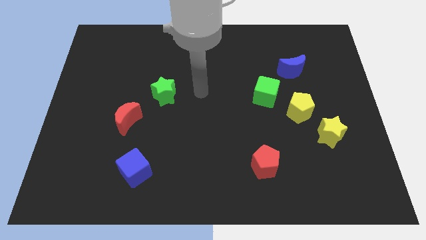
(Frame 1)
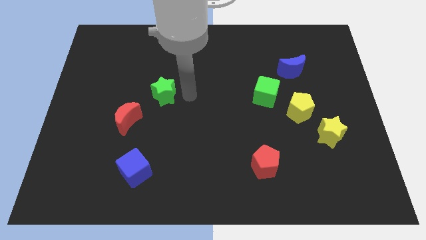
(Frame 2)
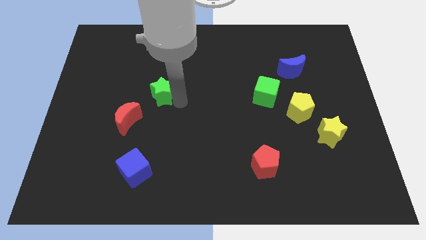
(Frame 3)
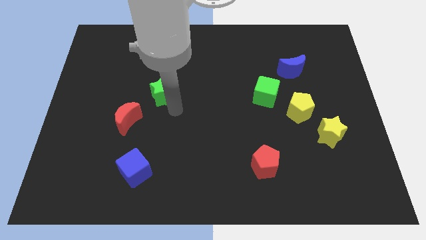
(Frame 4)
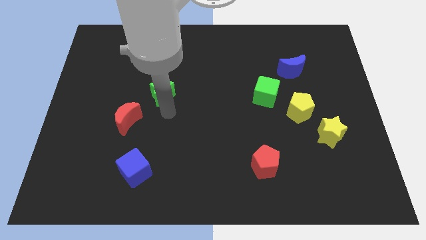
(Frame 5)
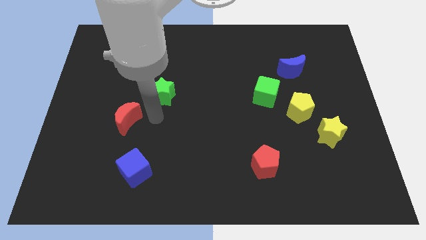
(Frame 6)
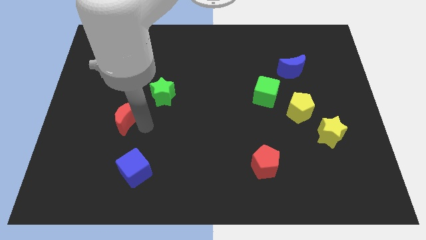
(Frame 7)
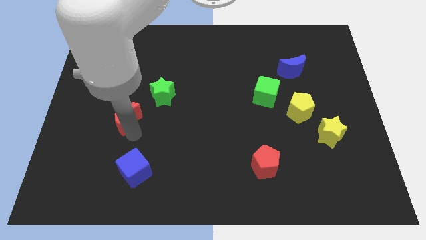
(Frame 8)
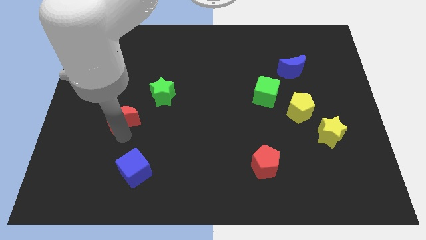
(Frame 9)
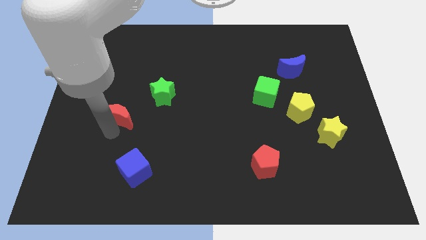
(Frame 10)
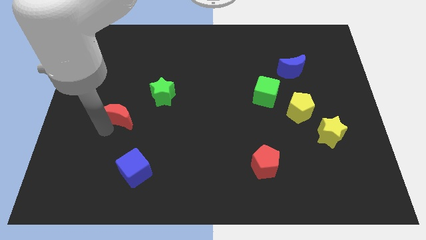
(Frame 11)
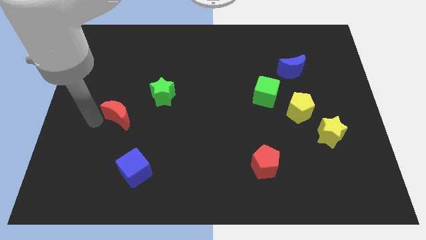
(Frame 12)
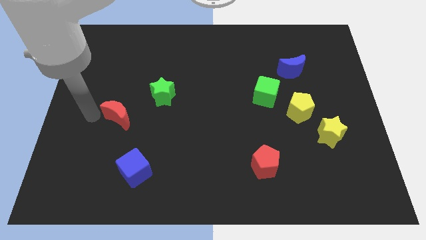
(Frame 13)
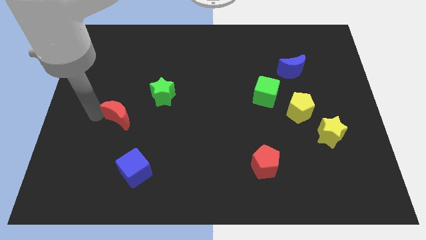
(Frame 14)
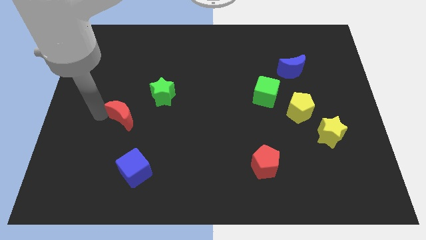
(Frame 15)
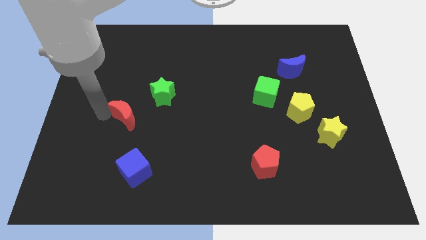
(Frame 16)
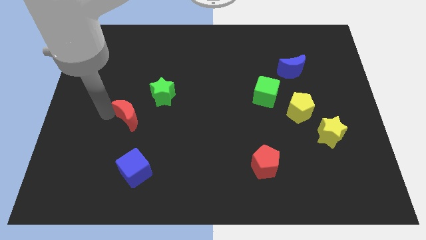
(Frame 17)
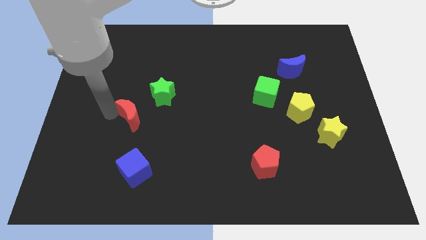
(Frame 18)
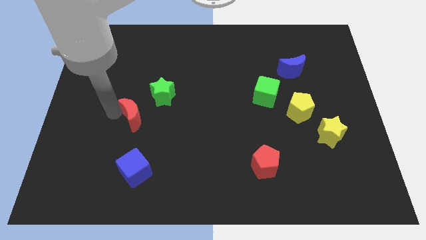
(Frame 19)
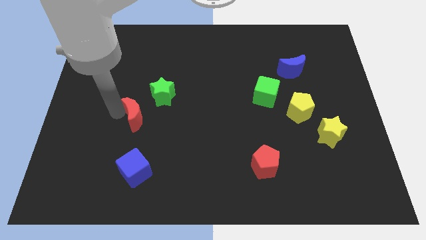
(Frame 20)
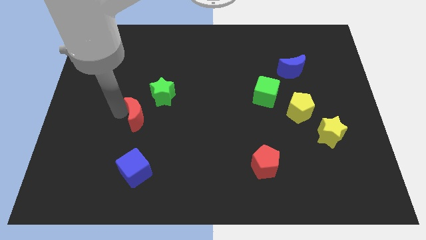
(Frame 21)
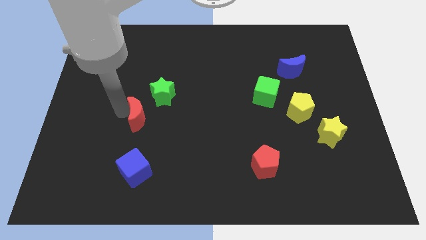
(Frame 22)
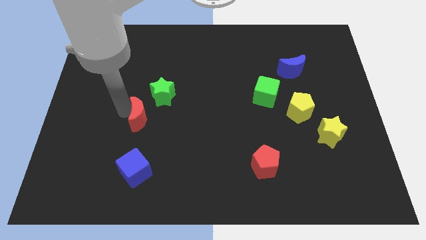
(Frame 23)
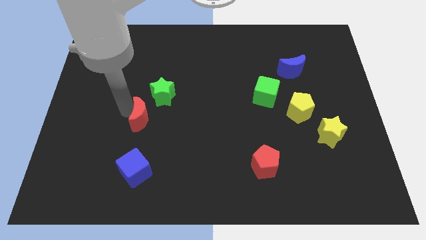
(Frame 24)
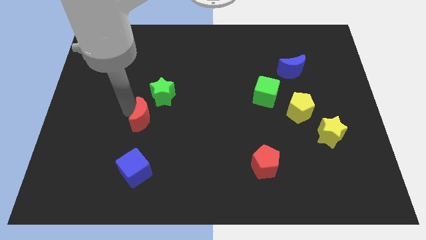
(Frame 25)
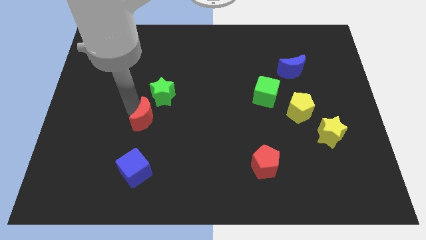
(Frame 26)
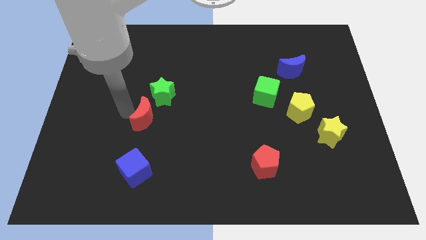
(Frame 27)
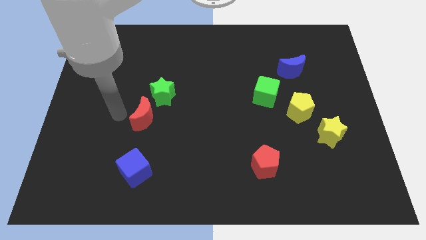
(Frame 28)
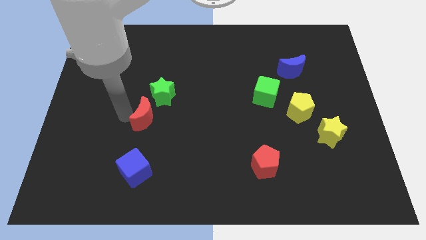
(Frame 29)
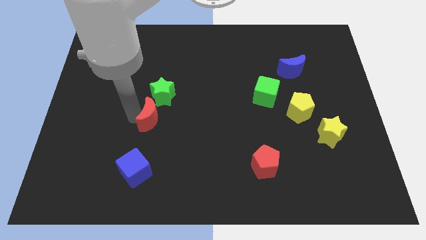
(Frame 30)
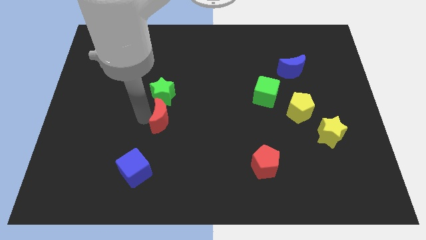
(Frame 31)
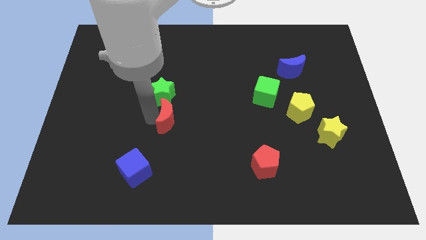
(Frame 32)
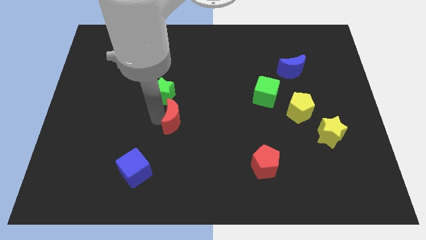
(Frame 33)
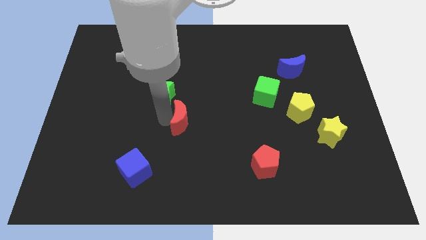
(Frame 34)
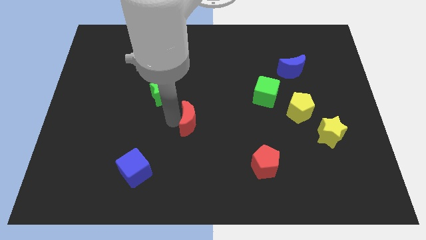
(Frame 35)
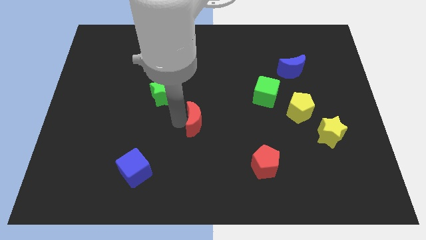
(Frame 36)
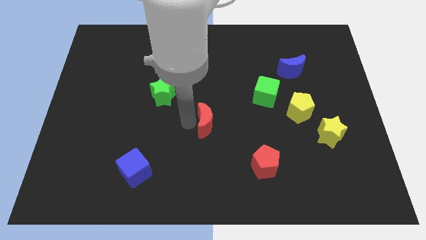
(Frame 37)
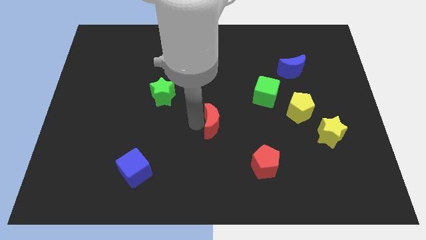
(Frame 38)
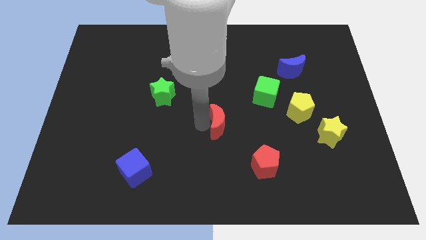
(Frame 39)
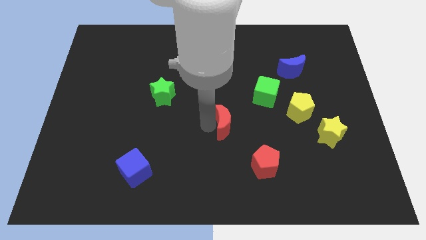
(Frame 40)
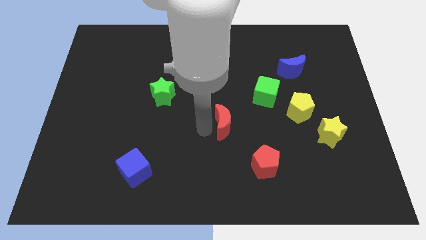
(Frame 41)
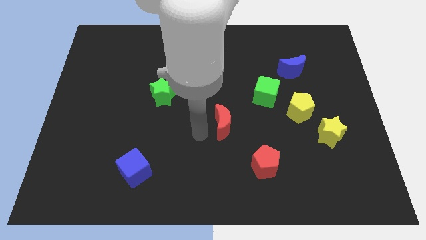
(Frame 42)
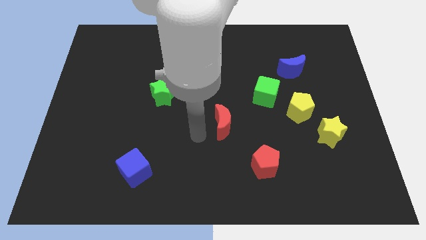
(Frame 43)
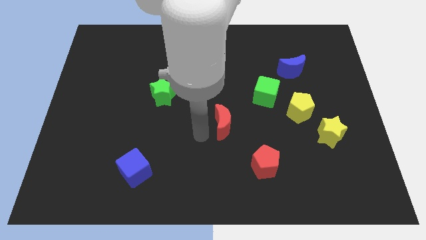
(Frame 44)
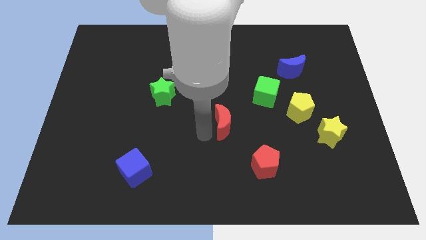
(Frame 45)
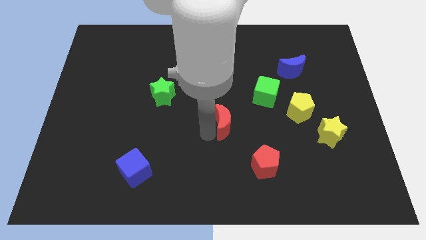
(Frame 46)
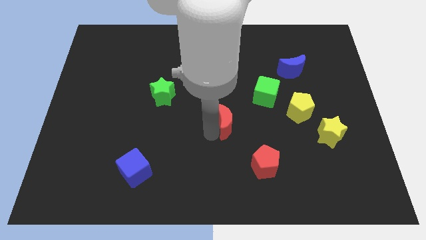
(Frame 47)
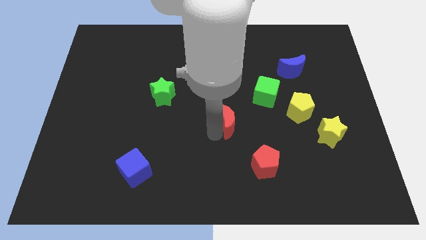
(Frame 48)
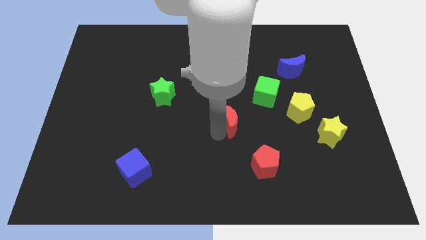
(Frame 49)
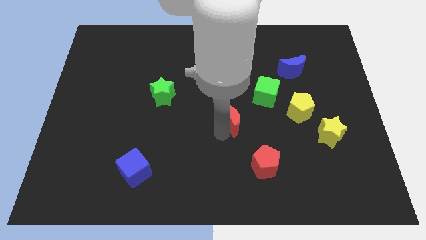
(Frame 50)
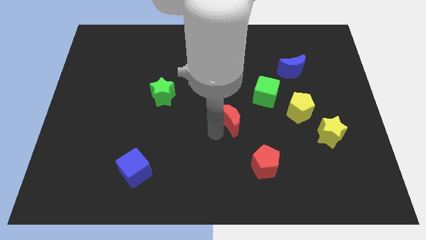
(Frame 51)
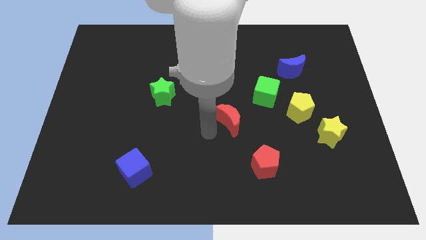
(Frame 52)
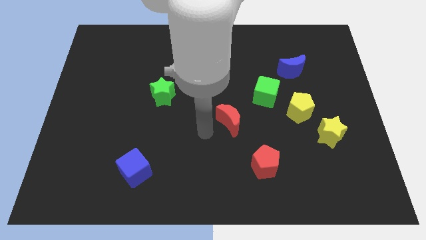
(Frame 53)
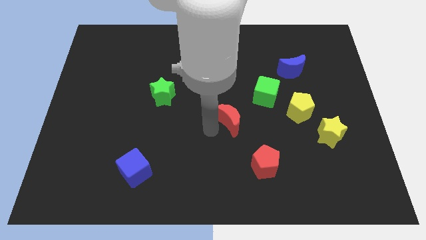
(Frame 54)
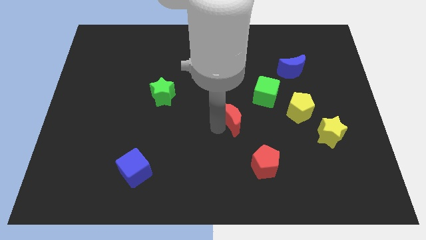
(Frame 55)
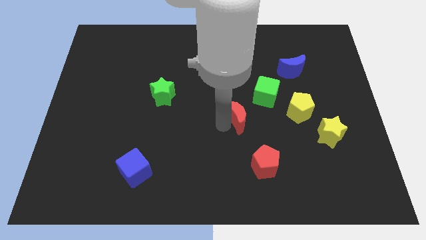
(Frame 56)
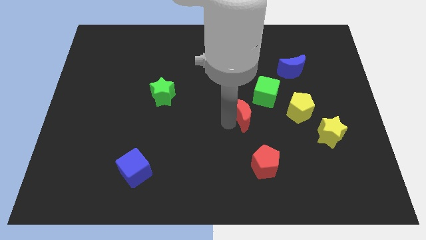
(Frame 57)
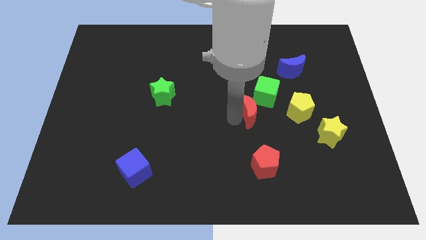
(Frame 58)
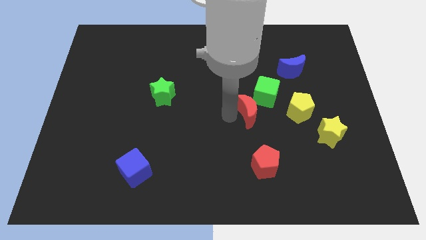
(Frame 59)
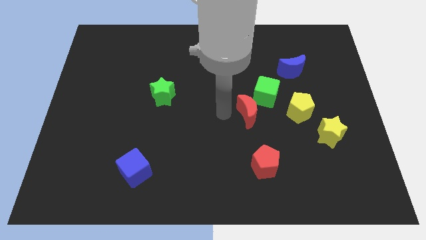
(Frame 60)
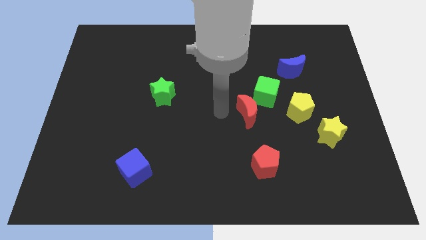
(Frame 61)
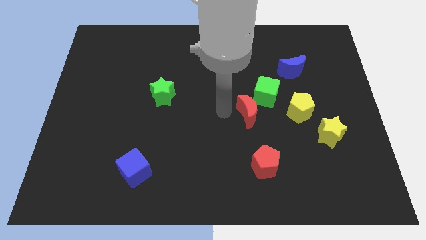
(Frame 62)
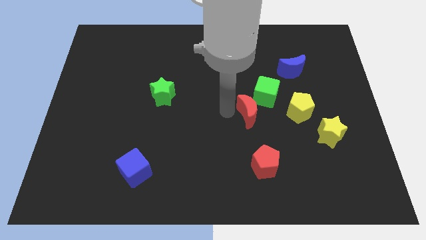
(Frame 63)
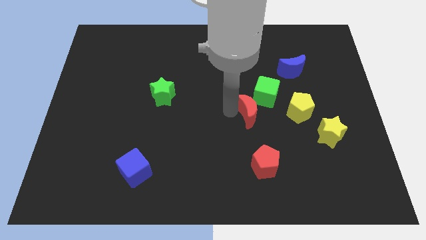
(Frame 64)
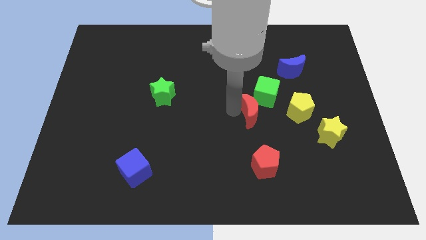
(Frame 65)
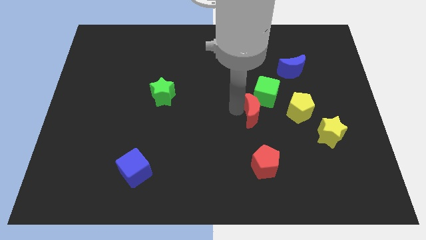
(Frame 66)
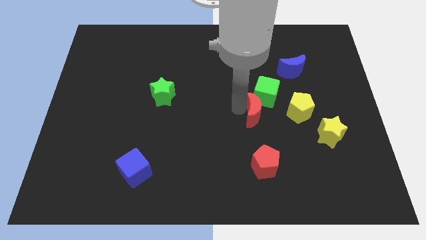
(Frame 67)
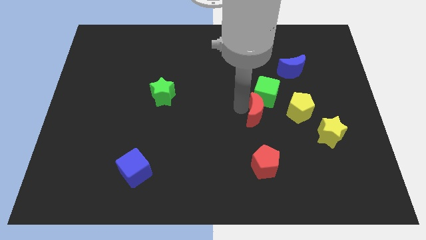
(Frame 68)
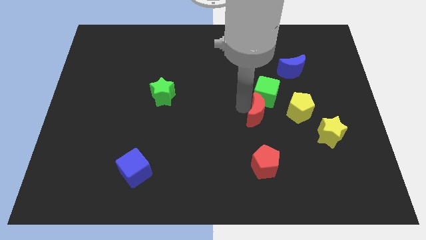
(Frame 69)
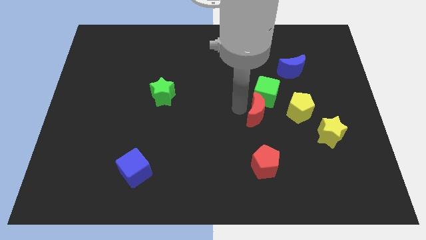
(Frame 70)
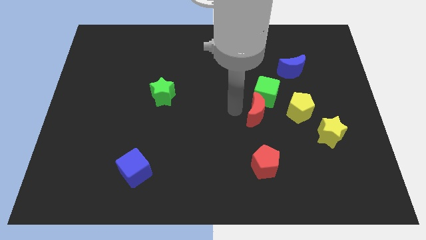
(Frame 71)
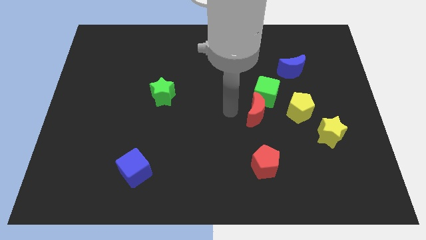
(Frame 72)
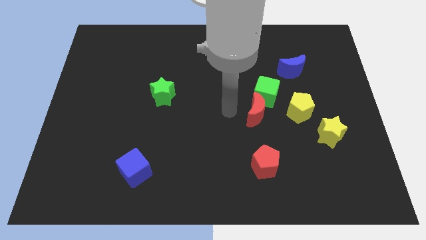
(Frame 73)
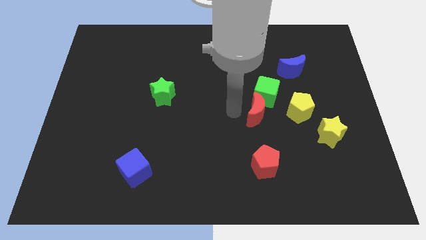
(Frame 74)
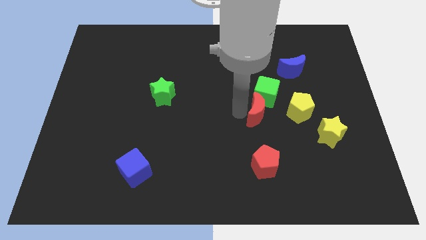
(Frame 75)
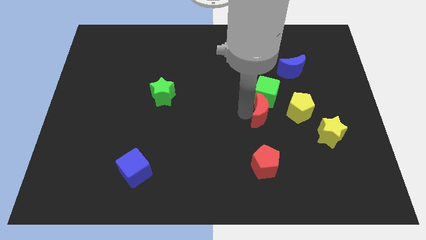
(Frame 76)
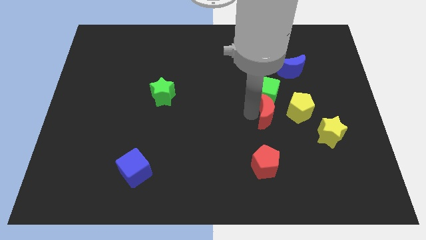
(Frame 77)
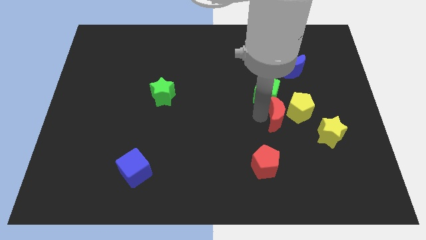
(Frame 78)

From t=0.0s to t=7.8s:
push the red moon next to the yellow pentagon
